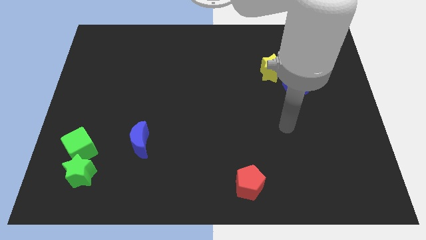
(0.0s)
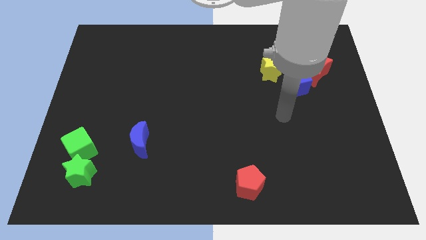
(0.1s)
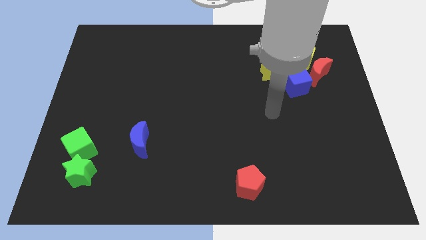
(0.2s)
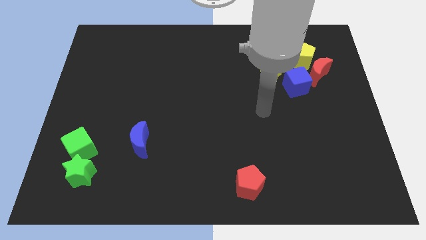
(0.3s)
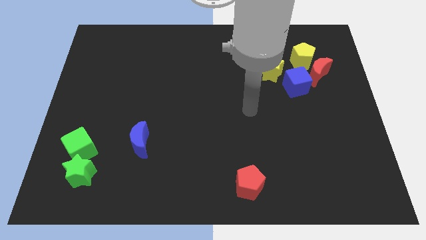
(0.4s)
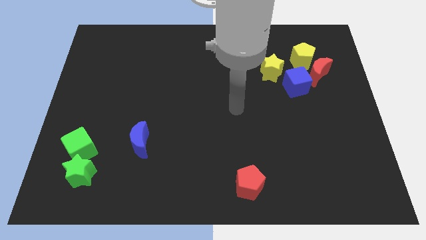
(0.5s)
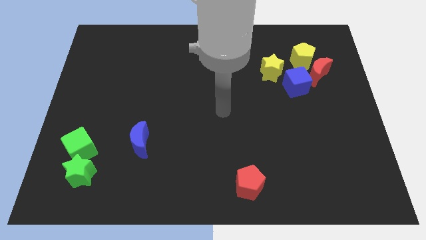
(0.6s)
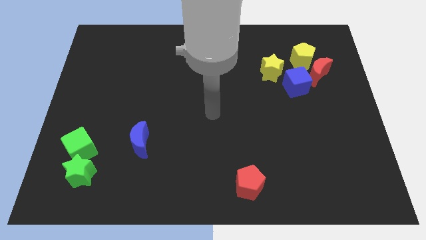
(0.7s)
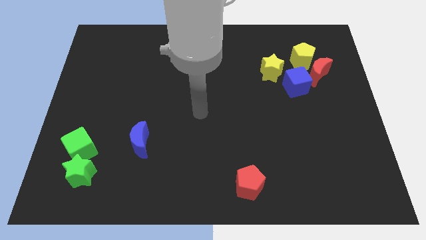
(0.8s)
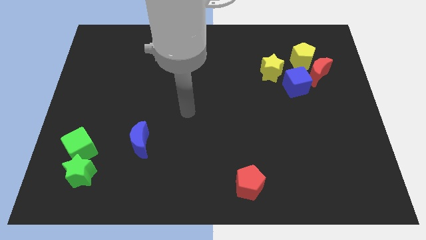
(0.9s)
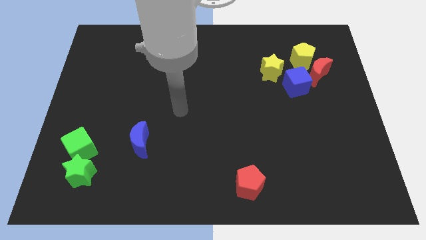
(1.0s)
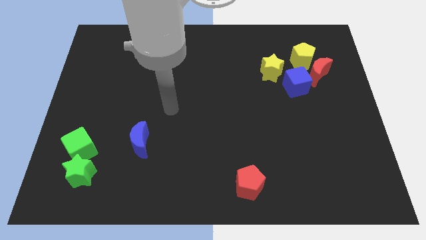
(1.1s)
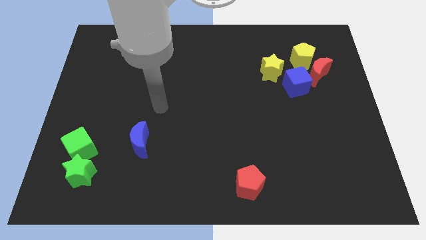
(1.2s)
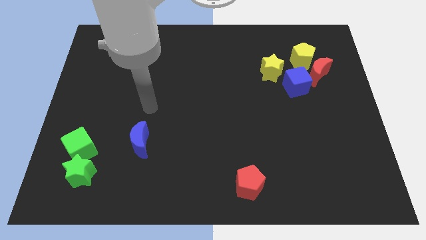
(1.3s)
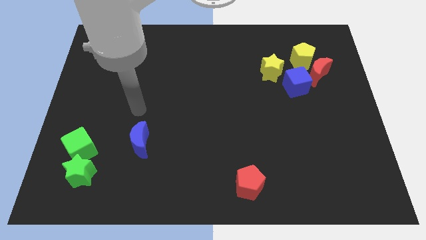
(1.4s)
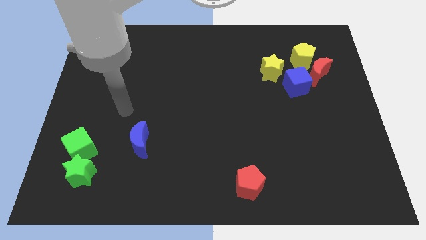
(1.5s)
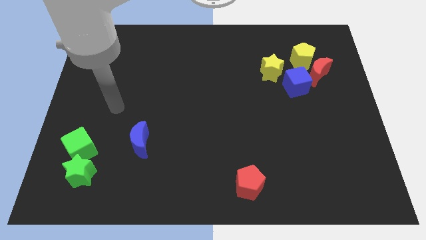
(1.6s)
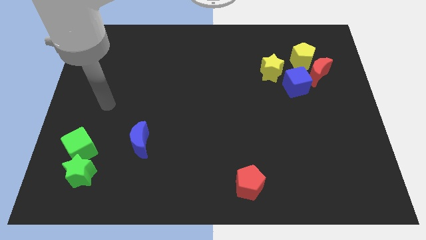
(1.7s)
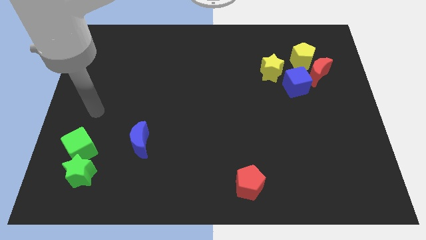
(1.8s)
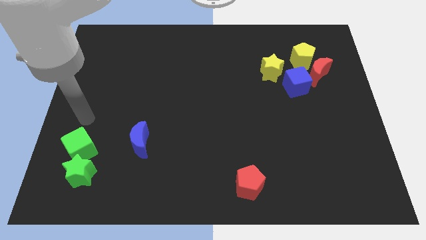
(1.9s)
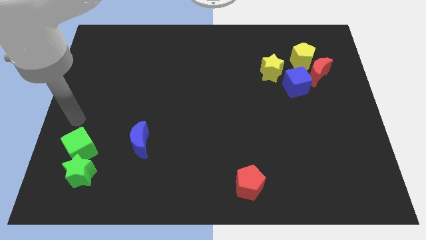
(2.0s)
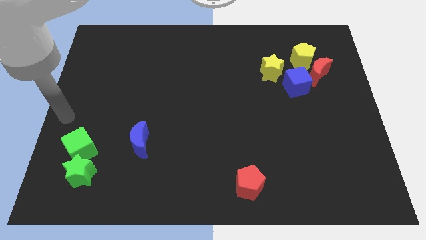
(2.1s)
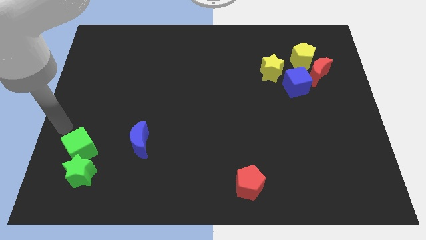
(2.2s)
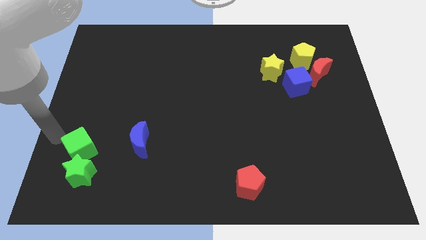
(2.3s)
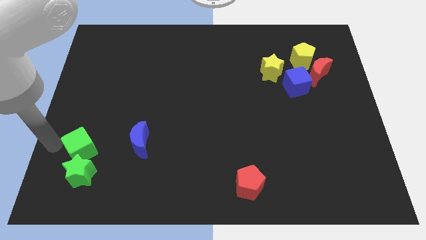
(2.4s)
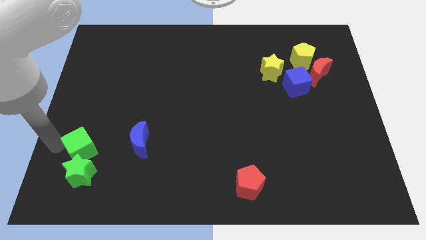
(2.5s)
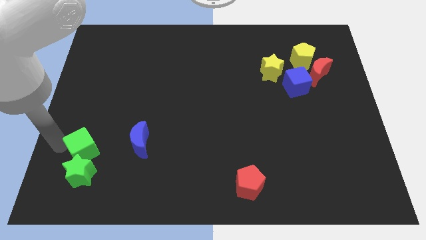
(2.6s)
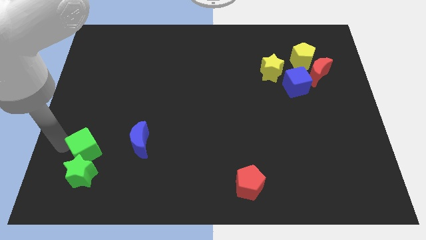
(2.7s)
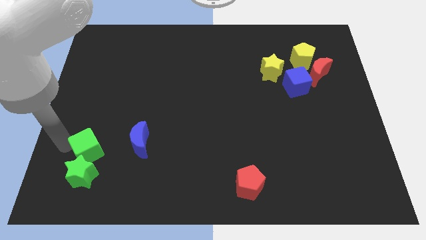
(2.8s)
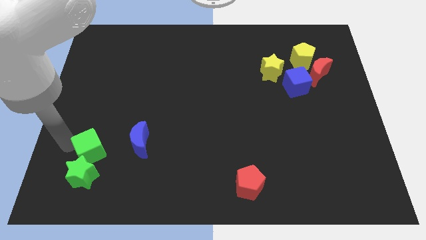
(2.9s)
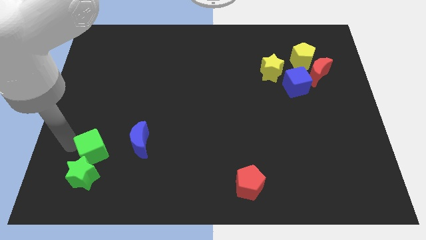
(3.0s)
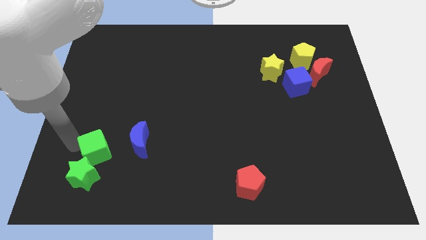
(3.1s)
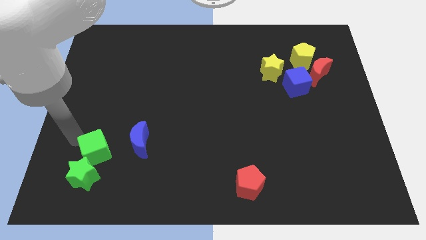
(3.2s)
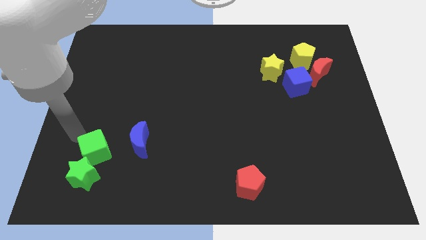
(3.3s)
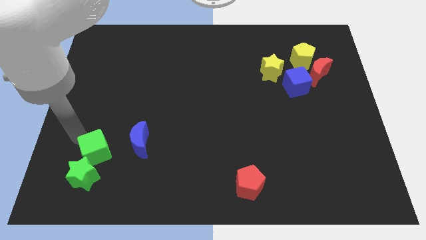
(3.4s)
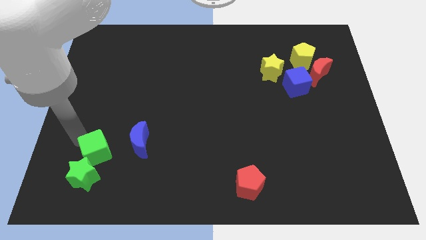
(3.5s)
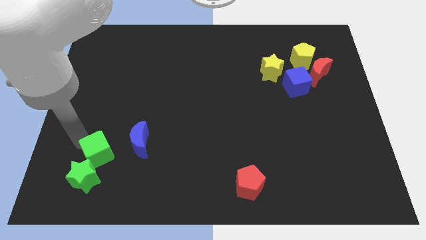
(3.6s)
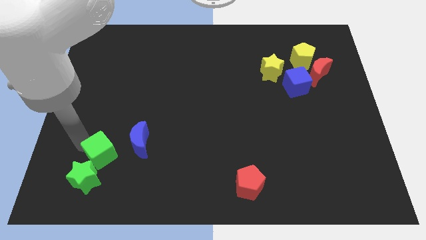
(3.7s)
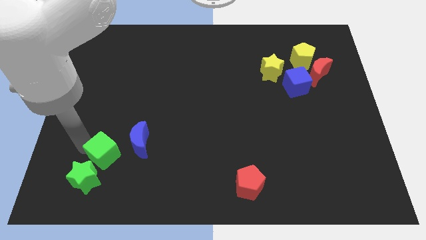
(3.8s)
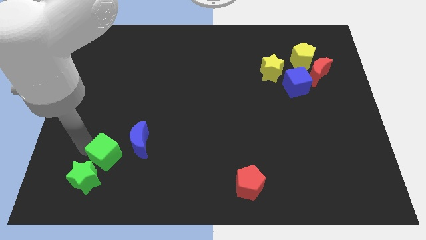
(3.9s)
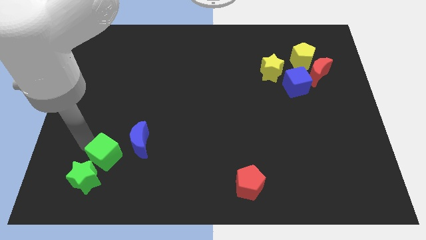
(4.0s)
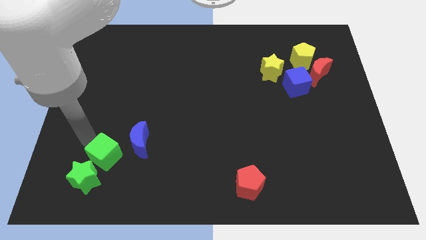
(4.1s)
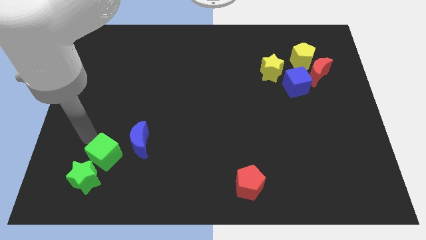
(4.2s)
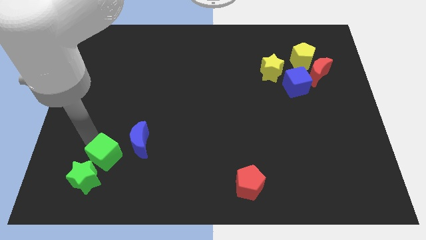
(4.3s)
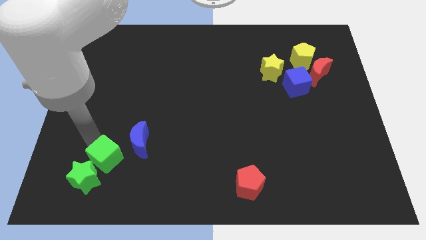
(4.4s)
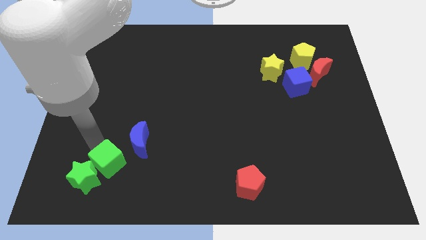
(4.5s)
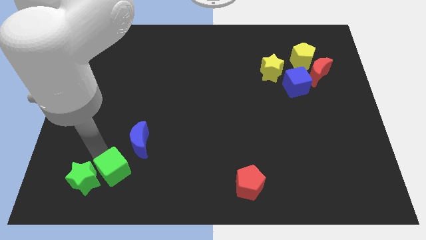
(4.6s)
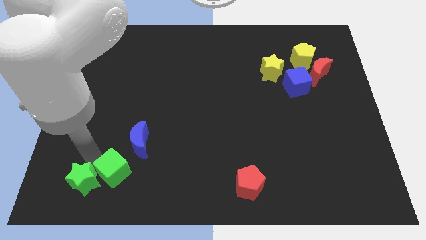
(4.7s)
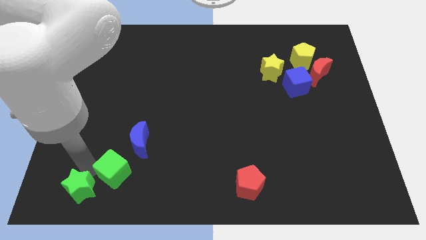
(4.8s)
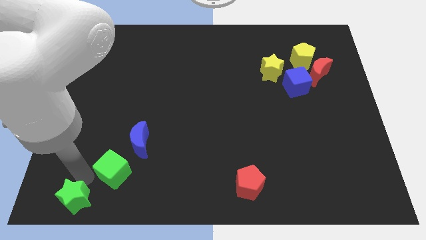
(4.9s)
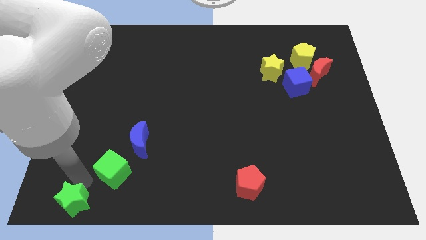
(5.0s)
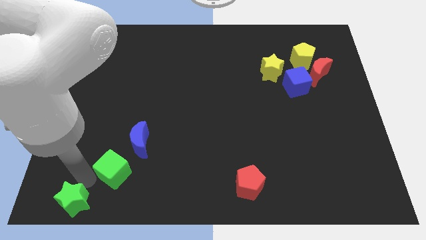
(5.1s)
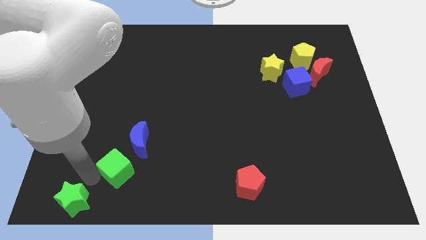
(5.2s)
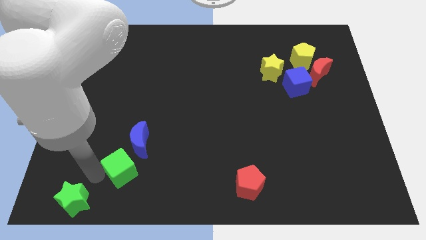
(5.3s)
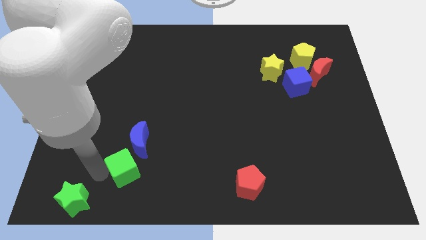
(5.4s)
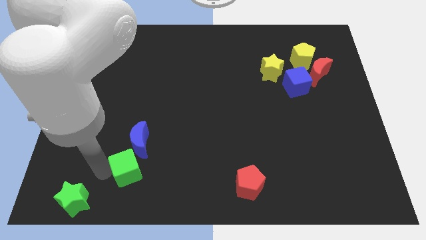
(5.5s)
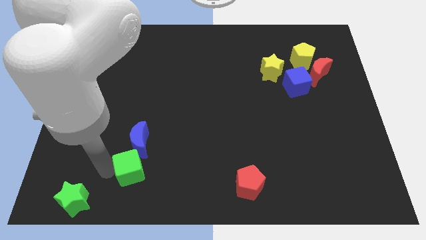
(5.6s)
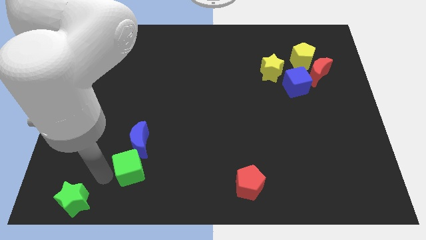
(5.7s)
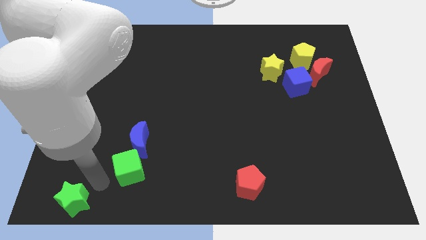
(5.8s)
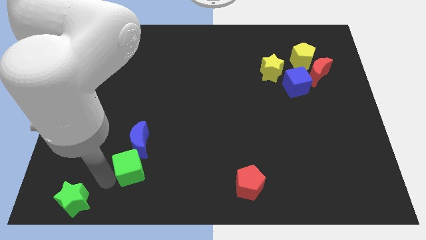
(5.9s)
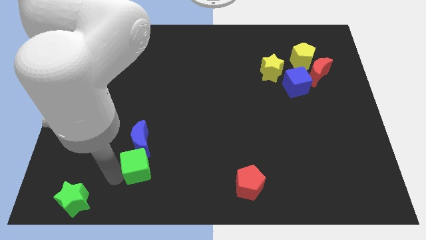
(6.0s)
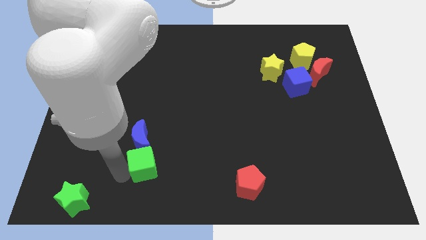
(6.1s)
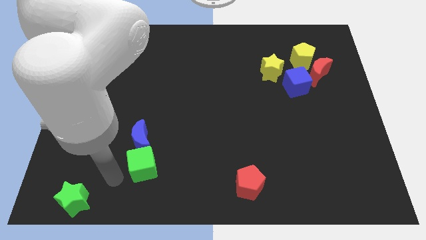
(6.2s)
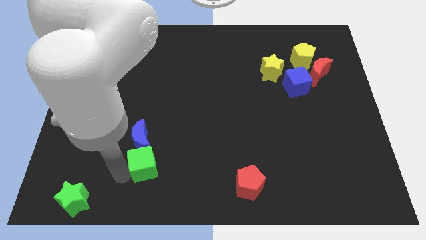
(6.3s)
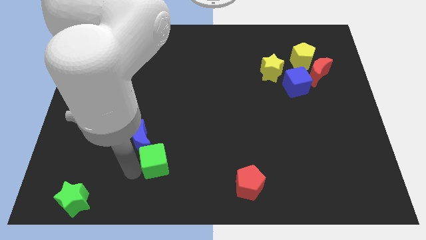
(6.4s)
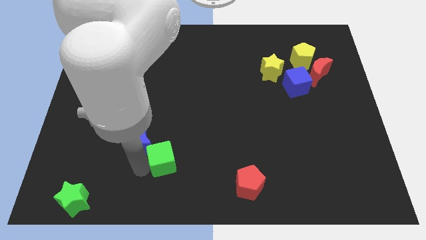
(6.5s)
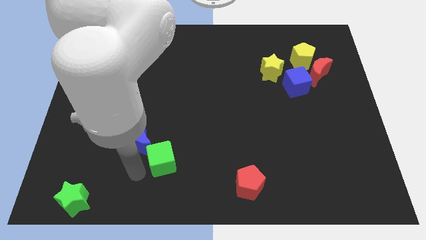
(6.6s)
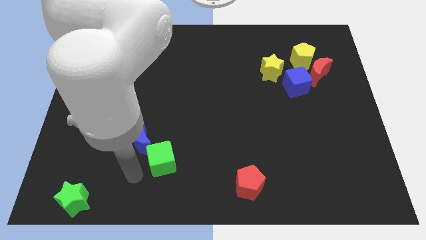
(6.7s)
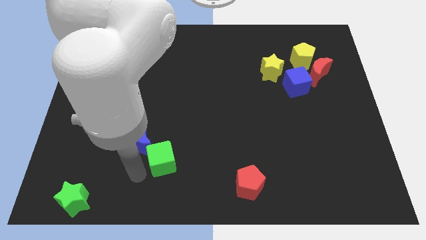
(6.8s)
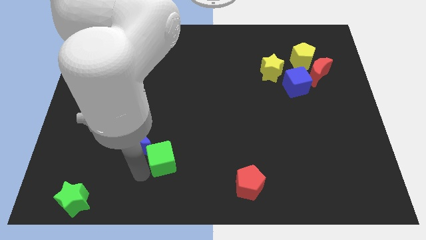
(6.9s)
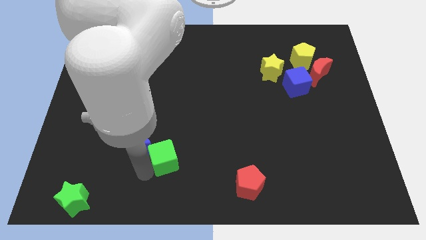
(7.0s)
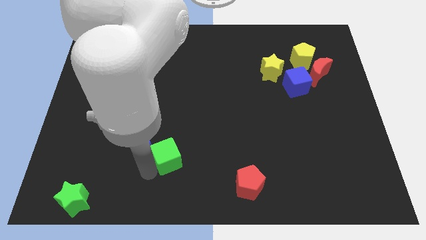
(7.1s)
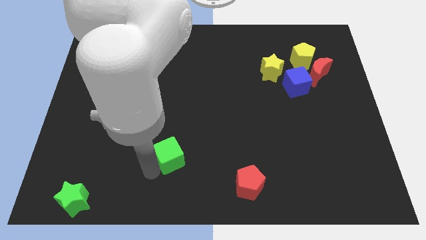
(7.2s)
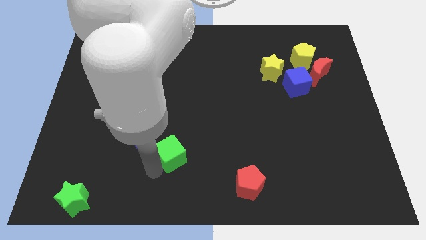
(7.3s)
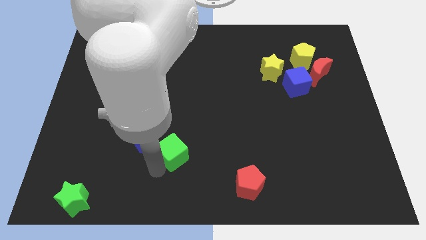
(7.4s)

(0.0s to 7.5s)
push the green cube right

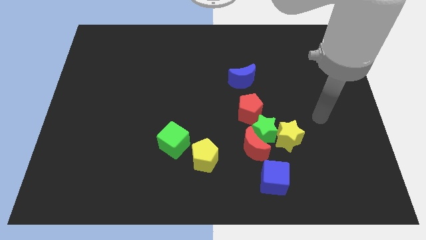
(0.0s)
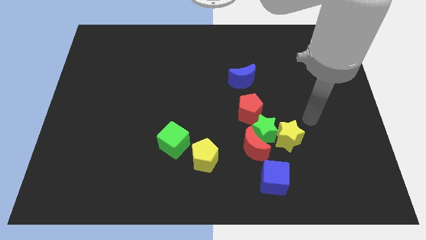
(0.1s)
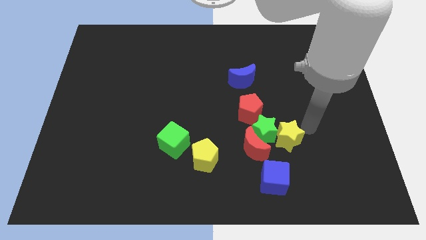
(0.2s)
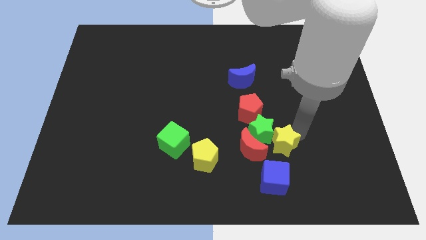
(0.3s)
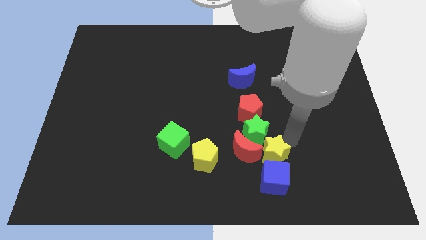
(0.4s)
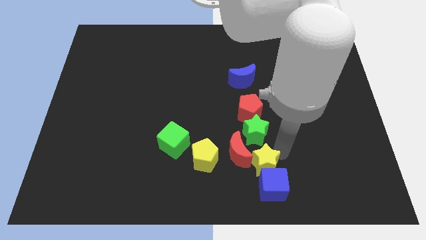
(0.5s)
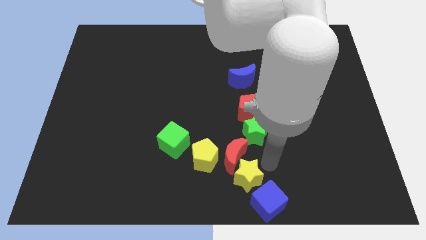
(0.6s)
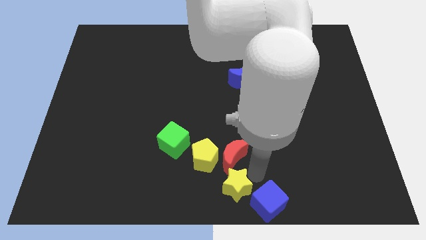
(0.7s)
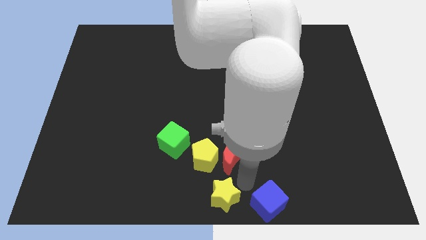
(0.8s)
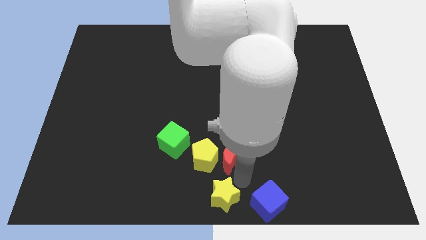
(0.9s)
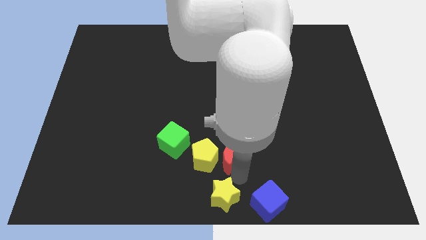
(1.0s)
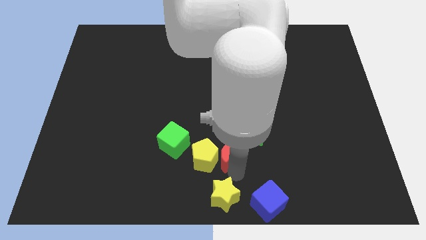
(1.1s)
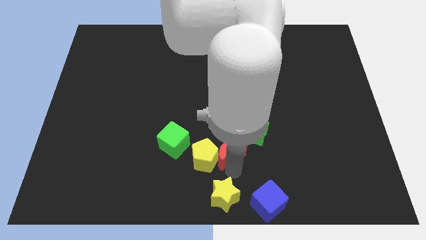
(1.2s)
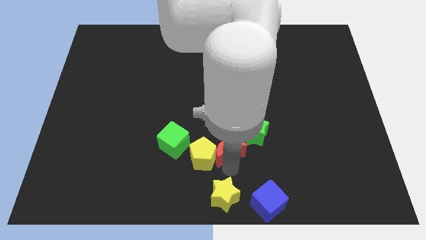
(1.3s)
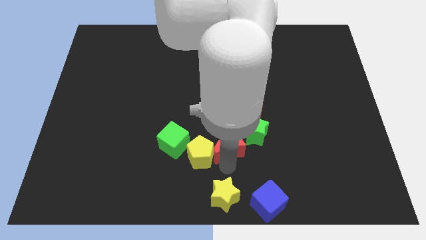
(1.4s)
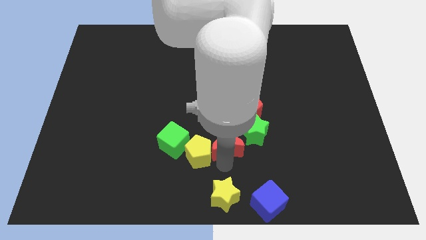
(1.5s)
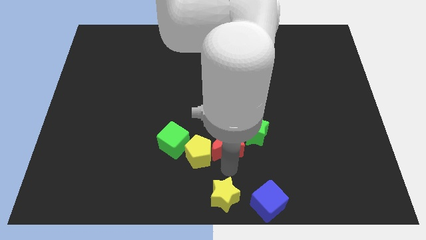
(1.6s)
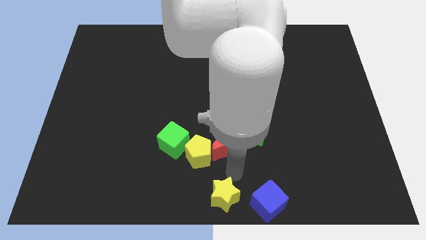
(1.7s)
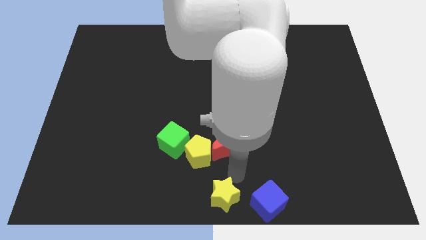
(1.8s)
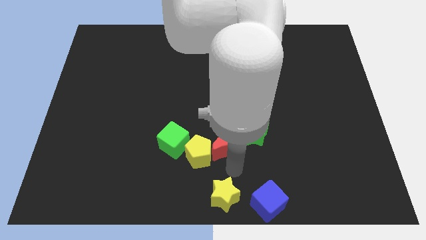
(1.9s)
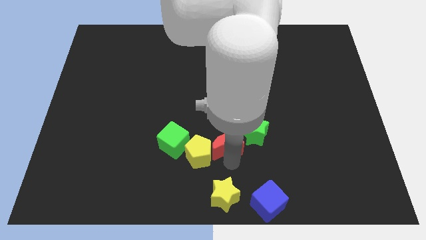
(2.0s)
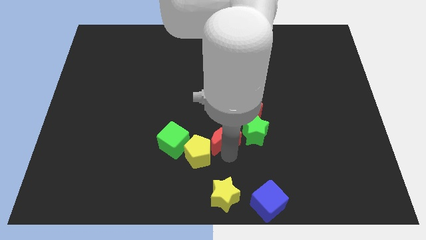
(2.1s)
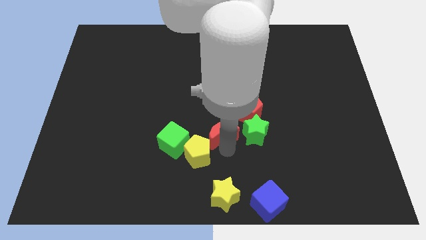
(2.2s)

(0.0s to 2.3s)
push the red moon upwards and to the left diagonally a little bit
